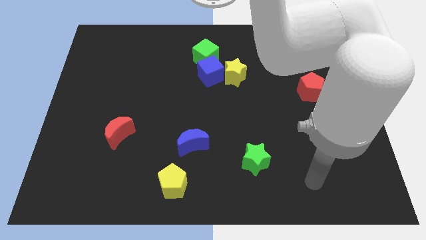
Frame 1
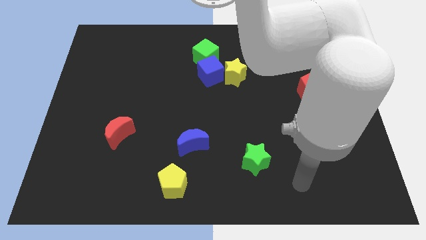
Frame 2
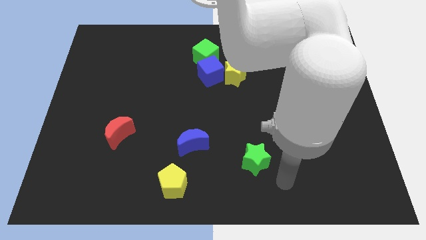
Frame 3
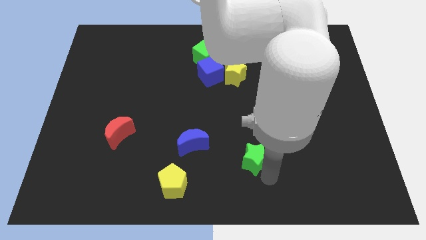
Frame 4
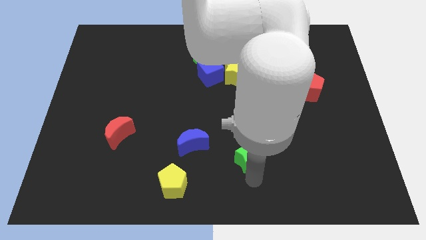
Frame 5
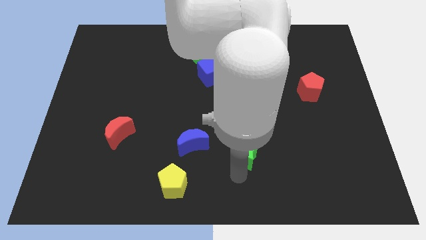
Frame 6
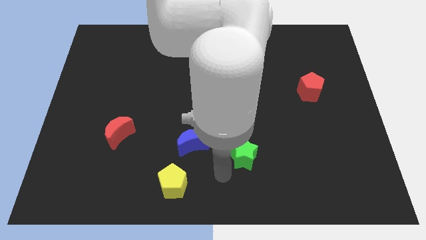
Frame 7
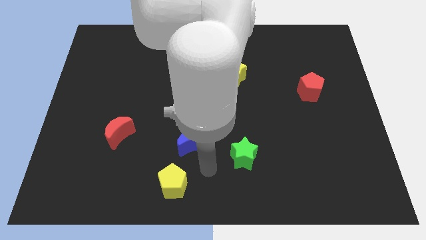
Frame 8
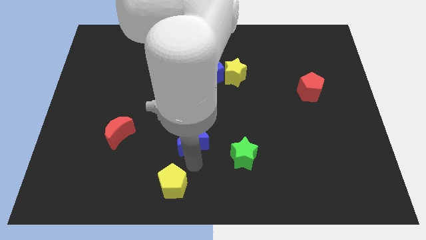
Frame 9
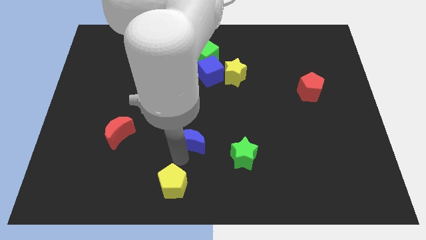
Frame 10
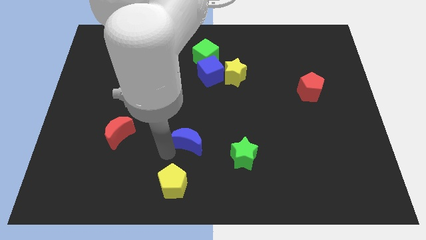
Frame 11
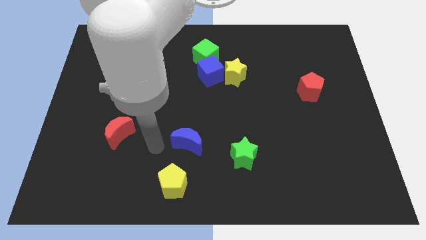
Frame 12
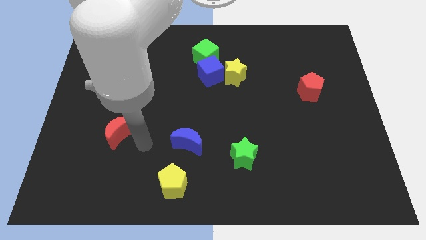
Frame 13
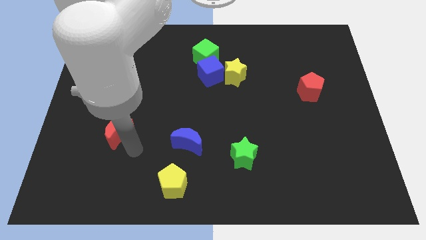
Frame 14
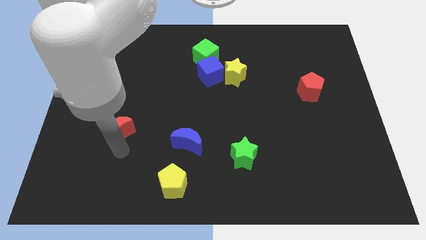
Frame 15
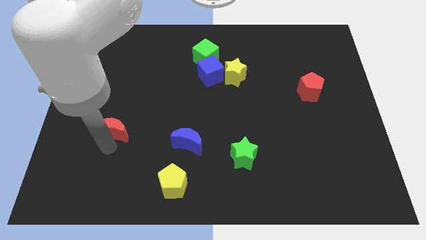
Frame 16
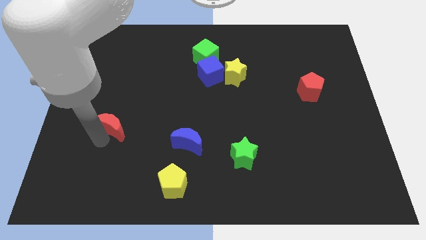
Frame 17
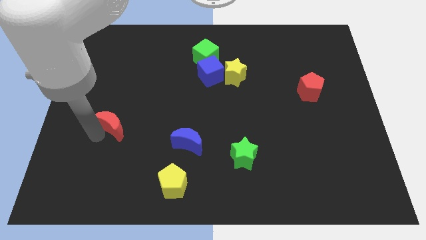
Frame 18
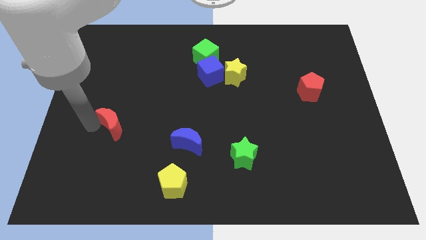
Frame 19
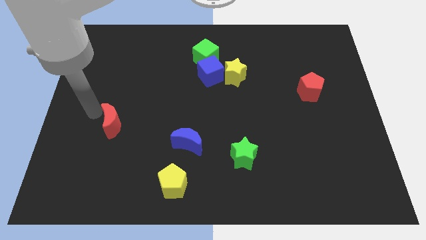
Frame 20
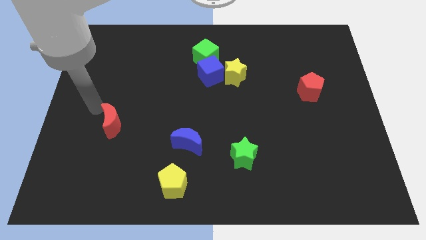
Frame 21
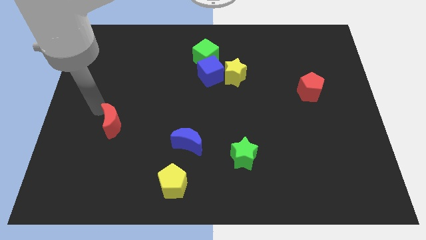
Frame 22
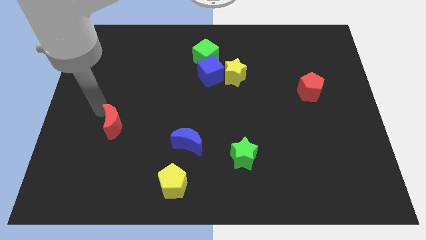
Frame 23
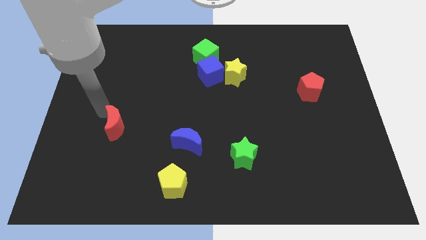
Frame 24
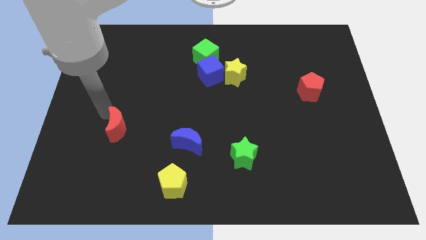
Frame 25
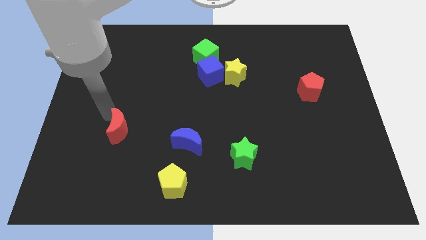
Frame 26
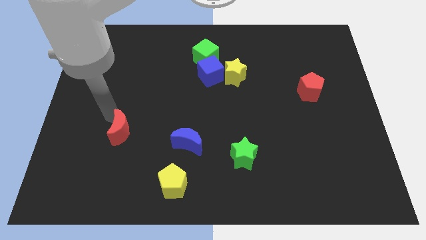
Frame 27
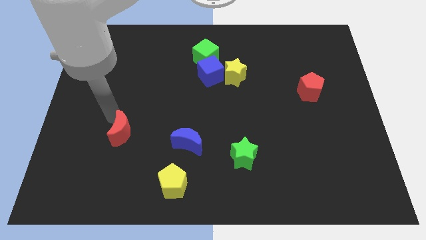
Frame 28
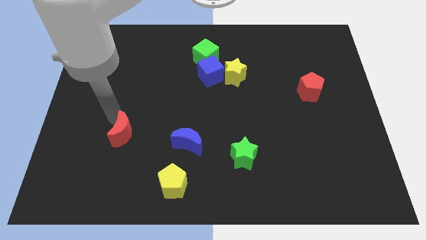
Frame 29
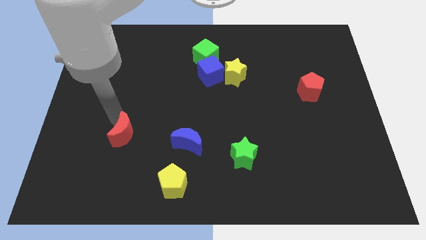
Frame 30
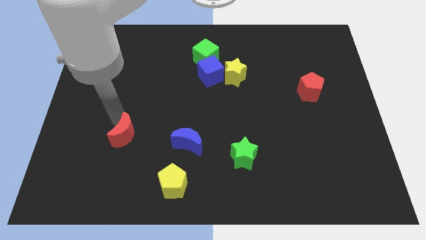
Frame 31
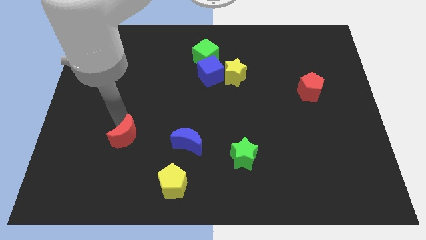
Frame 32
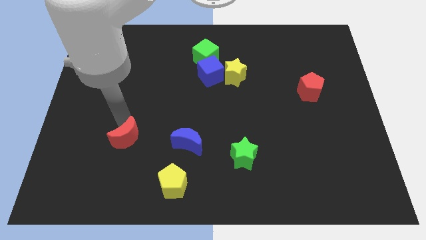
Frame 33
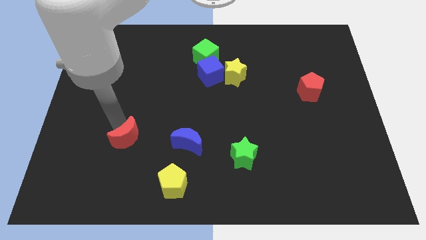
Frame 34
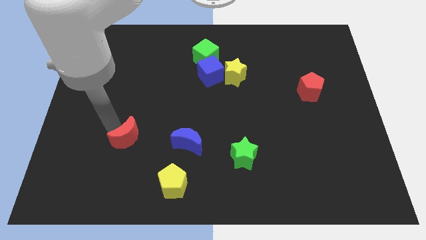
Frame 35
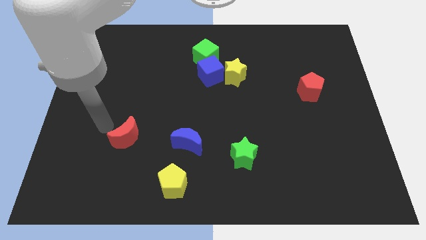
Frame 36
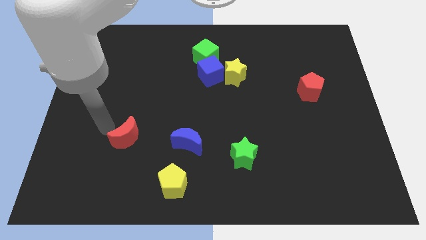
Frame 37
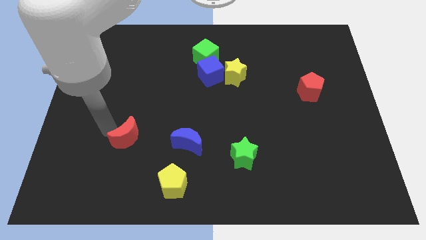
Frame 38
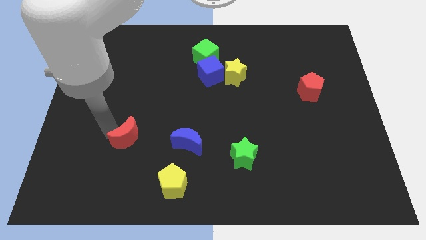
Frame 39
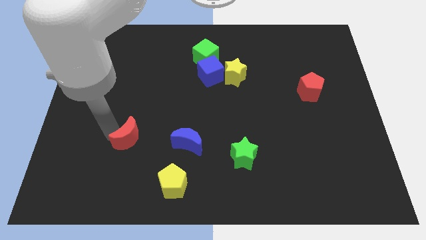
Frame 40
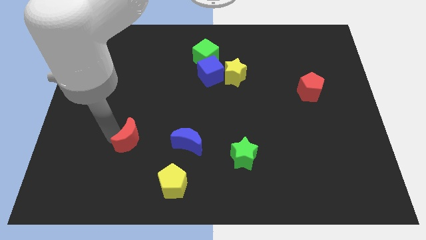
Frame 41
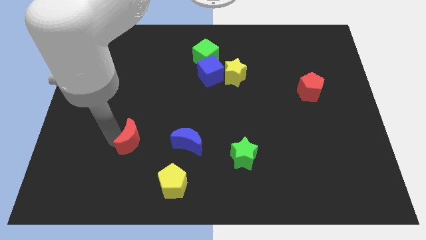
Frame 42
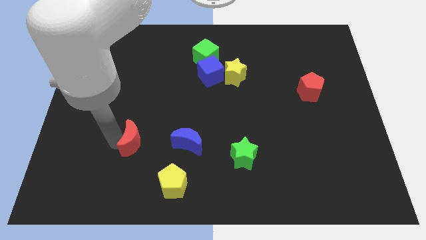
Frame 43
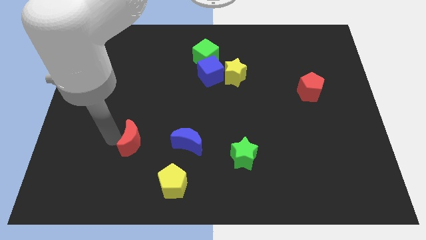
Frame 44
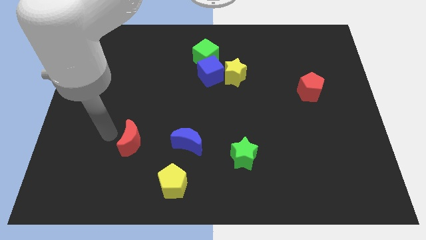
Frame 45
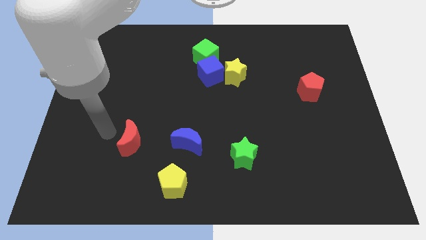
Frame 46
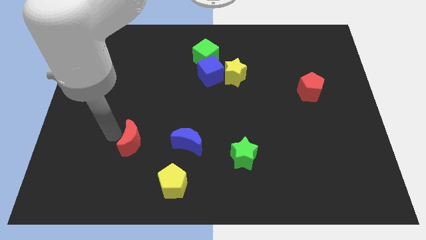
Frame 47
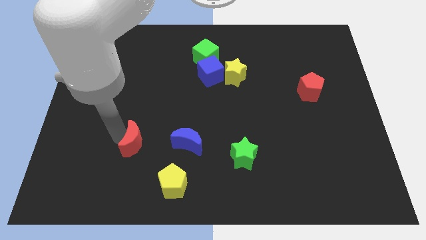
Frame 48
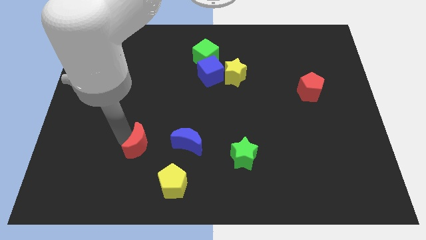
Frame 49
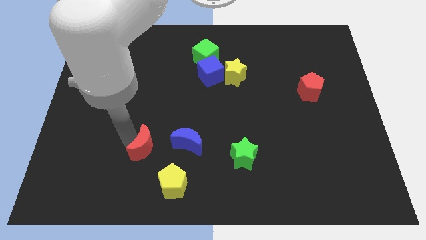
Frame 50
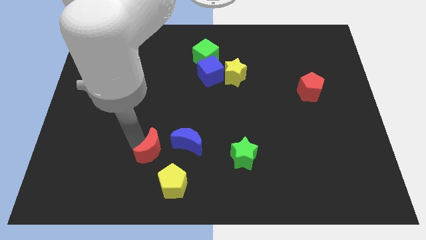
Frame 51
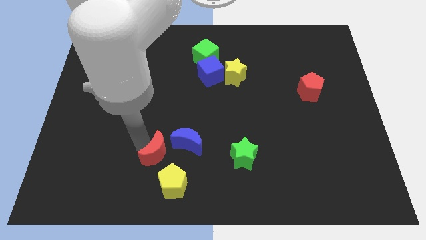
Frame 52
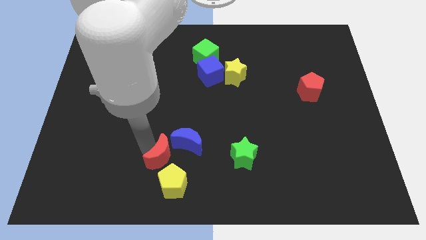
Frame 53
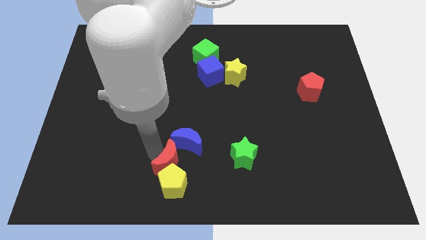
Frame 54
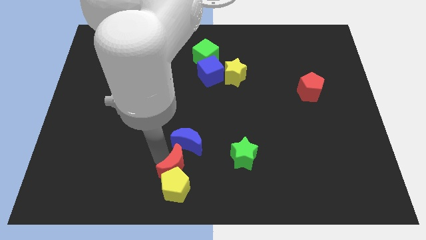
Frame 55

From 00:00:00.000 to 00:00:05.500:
push the red moon to the bottom side

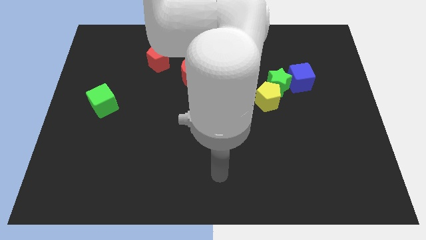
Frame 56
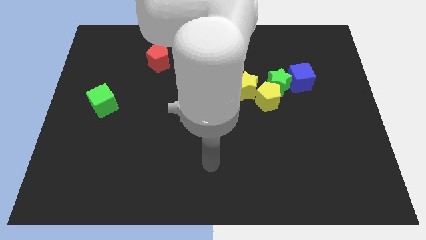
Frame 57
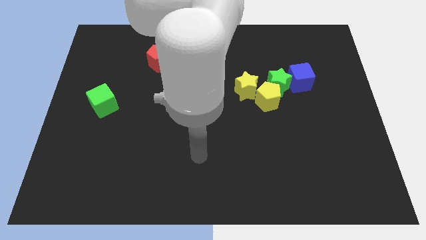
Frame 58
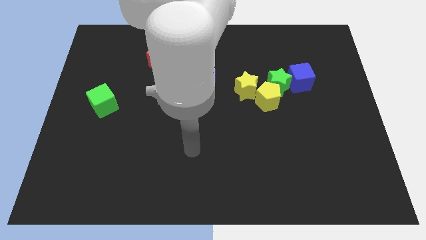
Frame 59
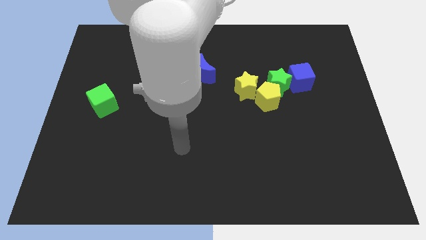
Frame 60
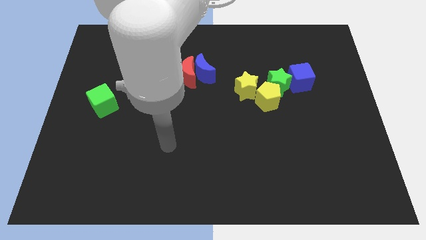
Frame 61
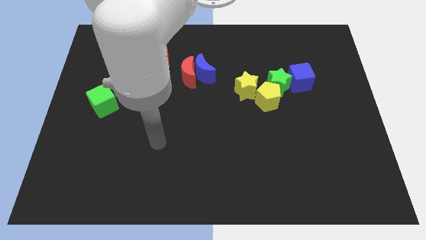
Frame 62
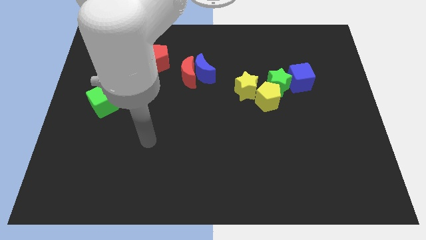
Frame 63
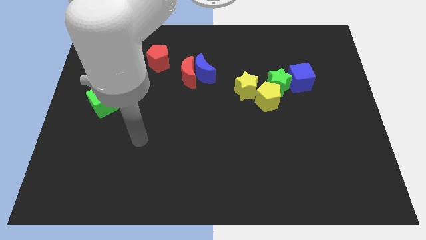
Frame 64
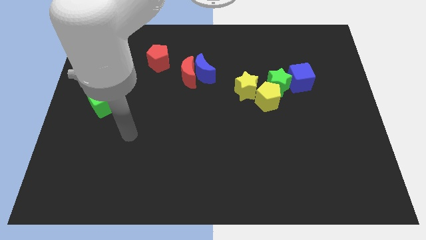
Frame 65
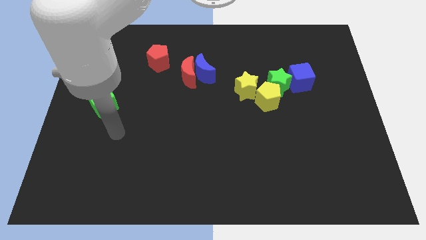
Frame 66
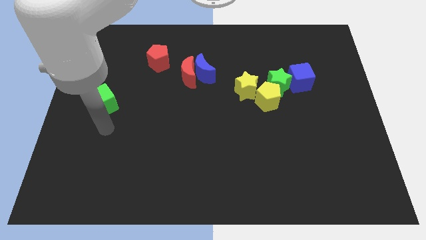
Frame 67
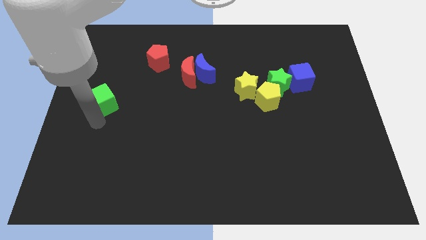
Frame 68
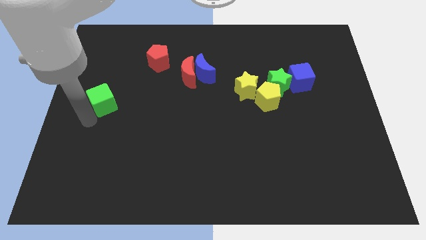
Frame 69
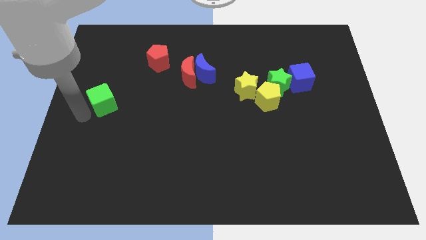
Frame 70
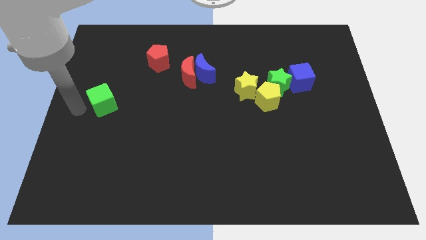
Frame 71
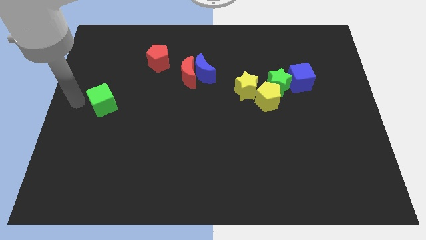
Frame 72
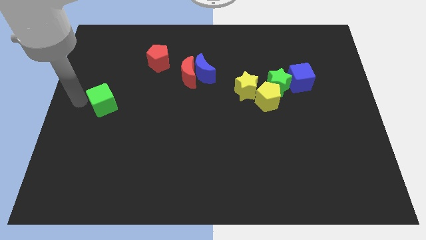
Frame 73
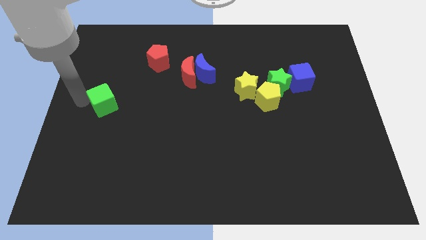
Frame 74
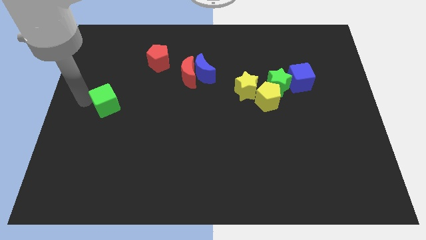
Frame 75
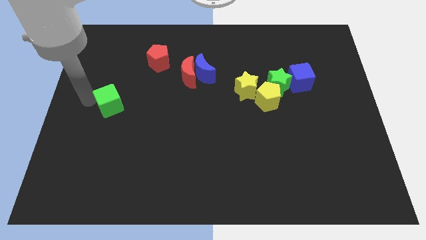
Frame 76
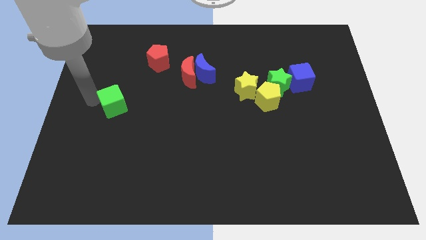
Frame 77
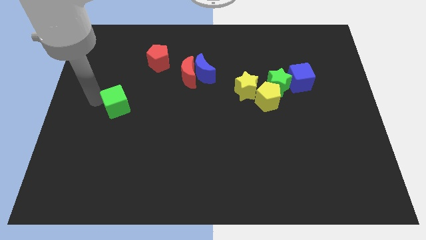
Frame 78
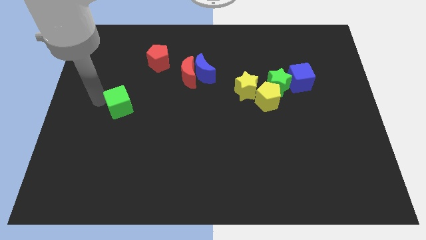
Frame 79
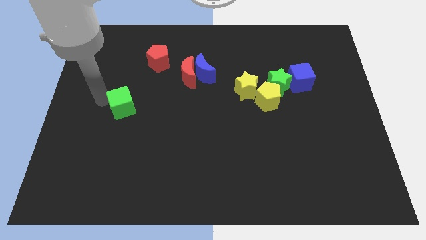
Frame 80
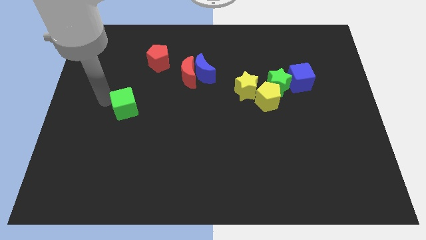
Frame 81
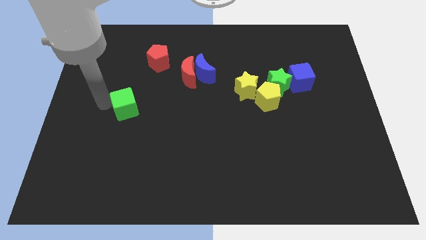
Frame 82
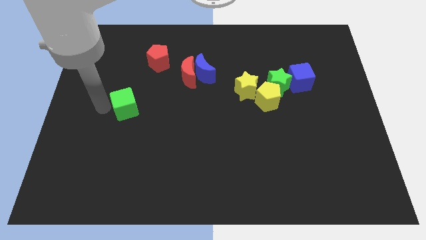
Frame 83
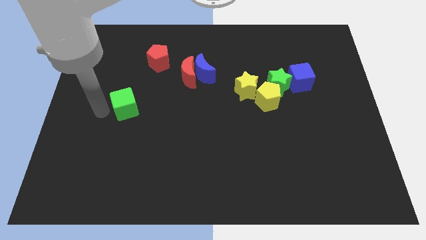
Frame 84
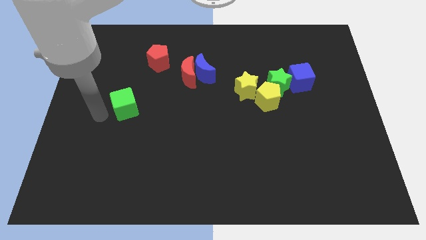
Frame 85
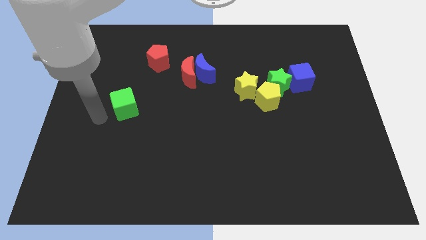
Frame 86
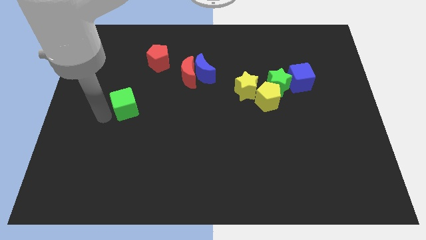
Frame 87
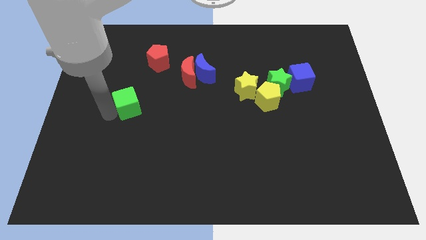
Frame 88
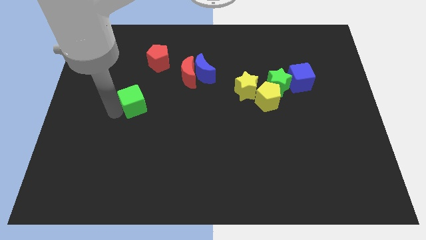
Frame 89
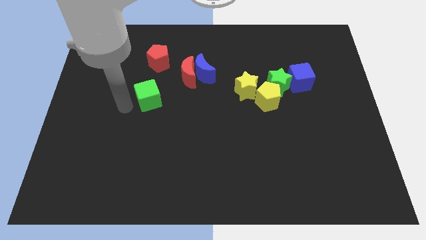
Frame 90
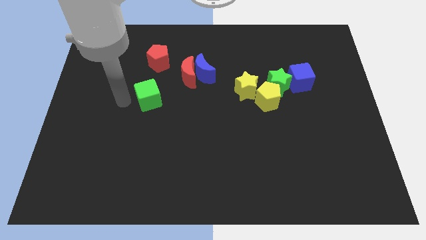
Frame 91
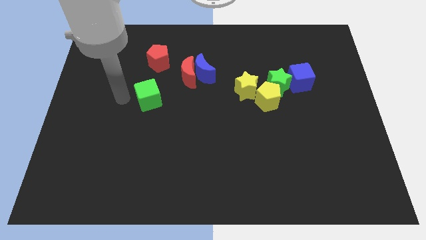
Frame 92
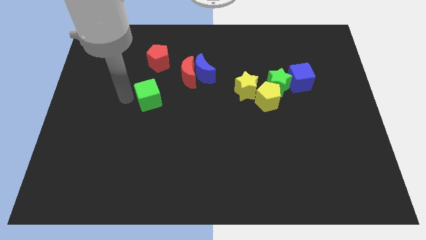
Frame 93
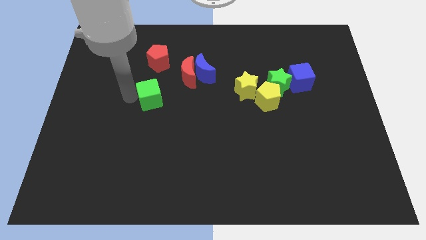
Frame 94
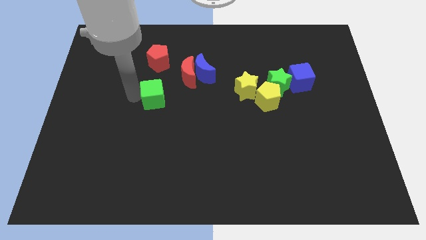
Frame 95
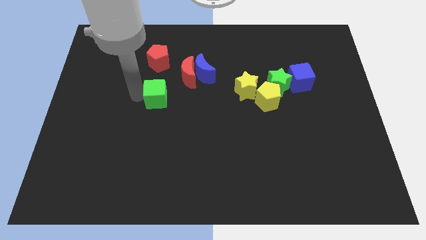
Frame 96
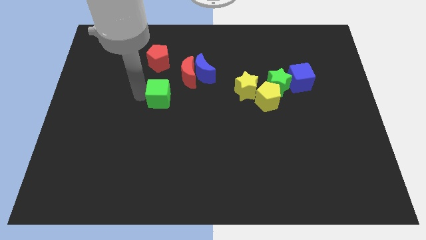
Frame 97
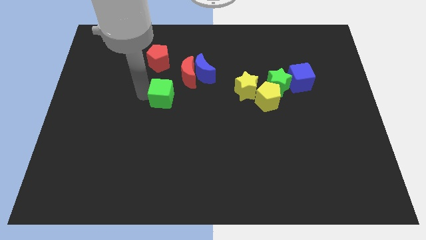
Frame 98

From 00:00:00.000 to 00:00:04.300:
put the green cube to the middle of the board
